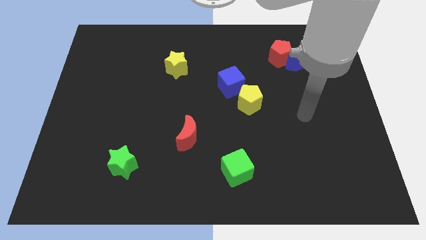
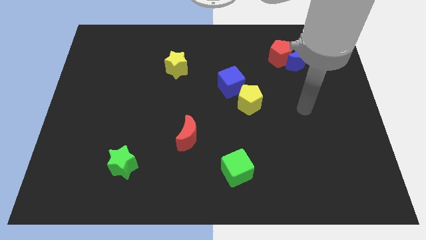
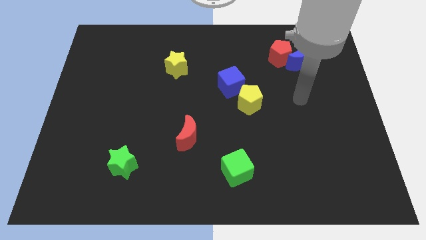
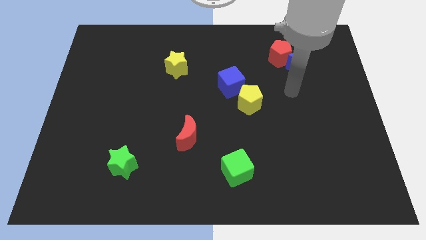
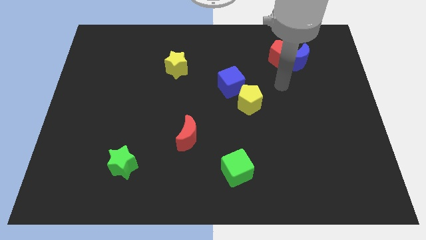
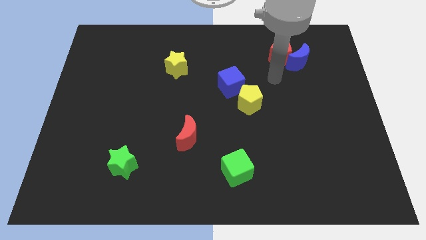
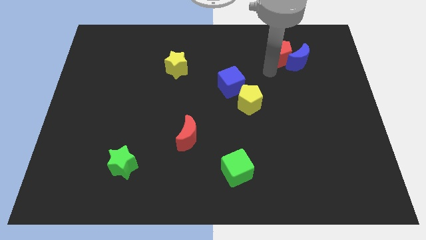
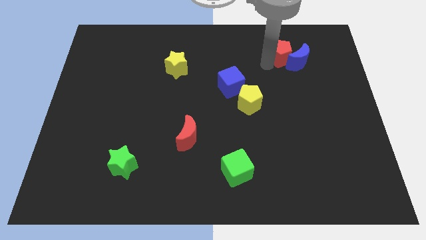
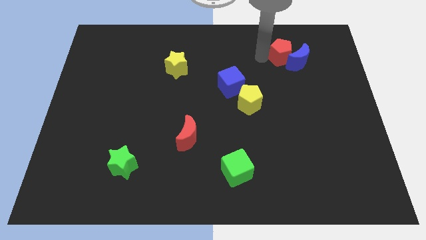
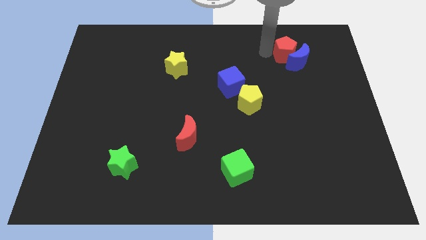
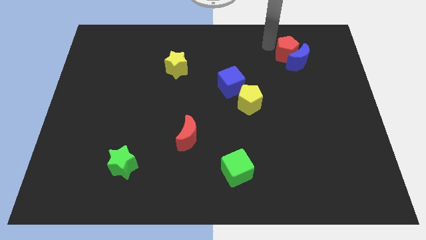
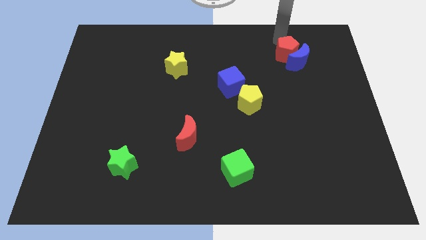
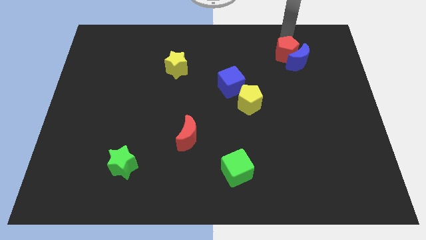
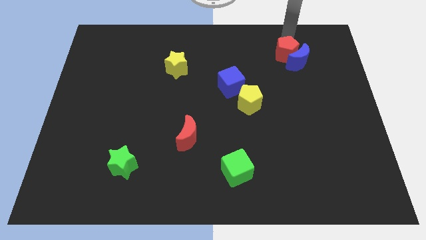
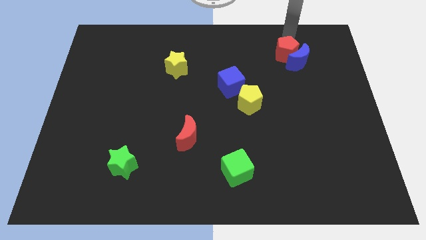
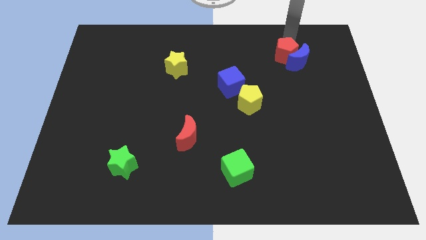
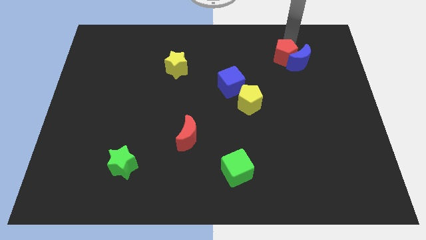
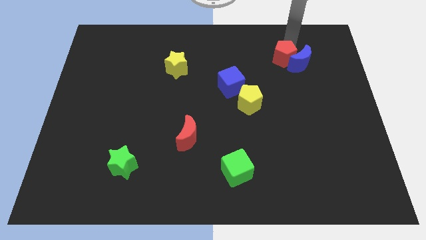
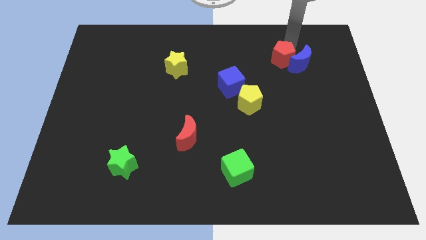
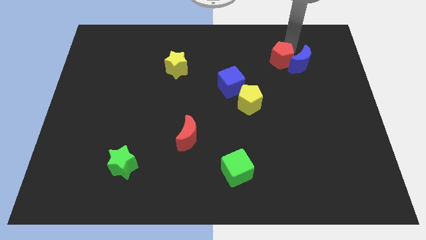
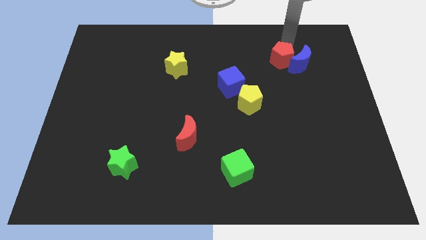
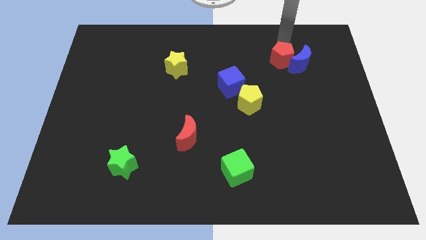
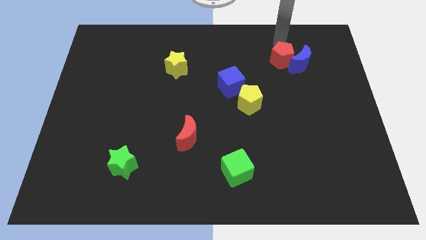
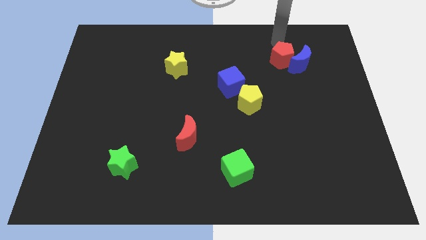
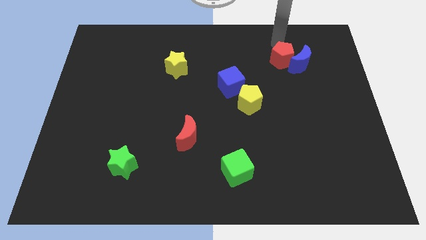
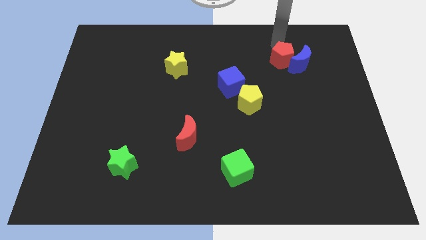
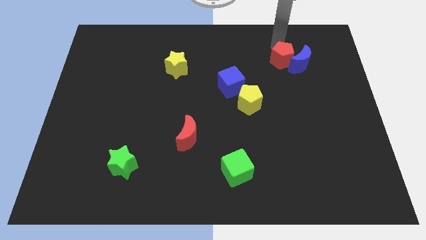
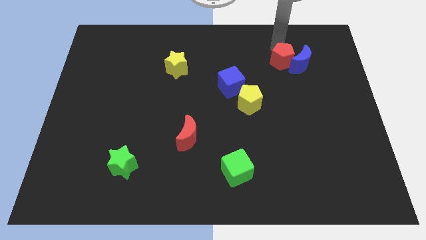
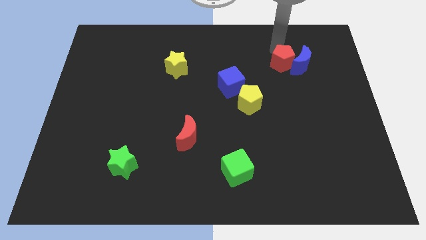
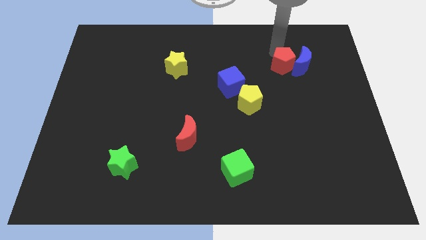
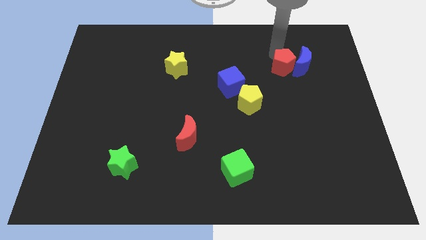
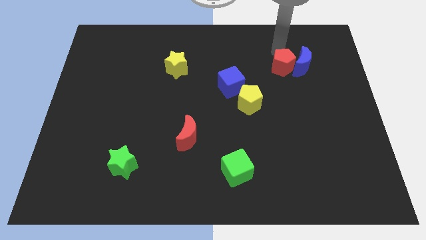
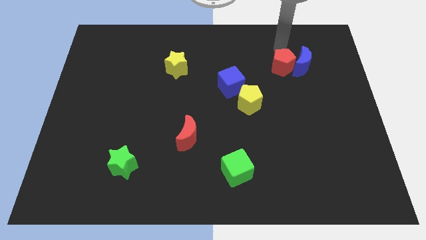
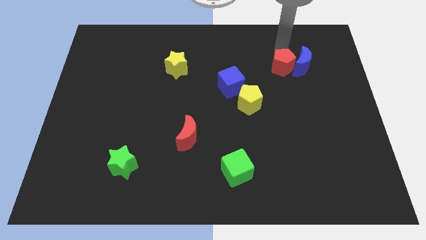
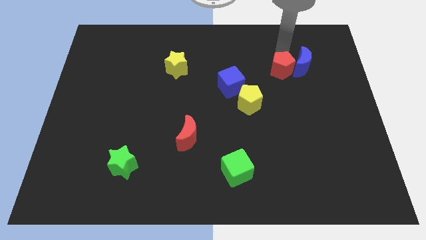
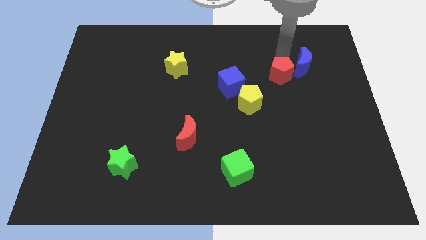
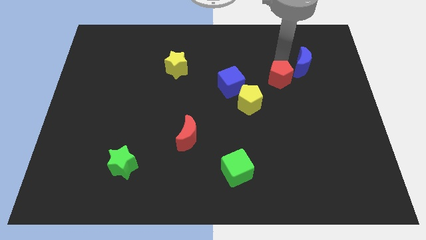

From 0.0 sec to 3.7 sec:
move the red pentagon downwards a little

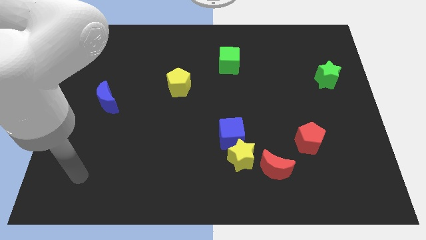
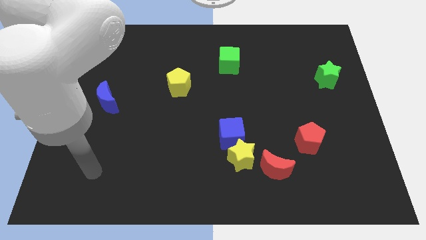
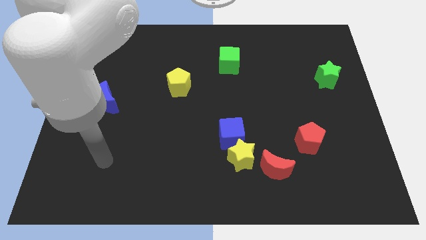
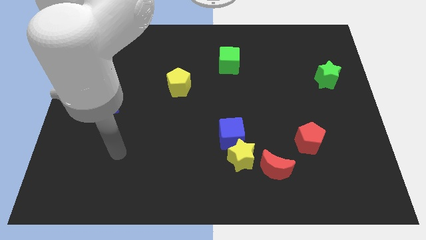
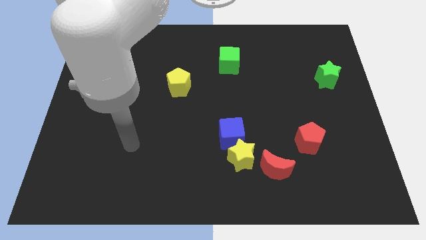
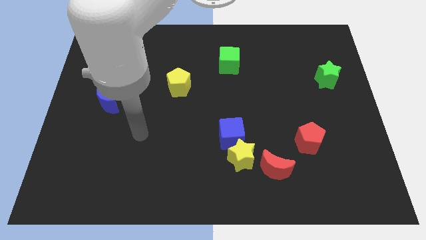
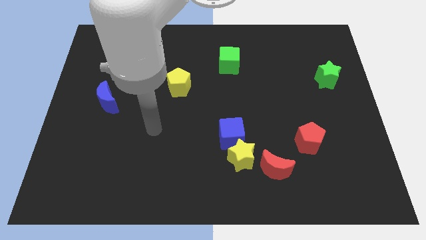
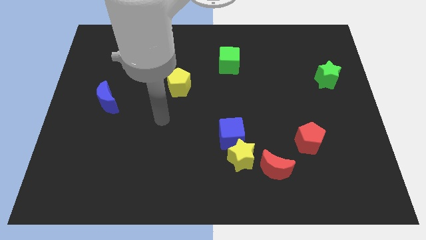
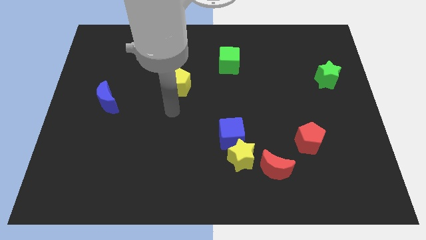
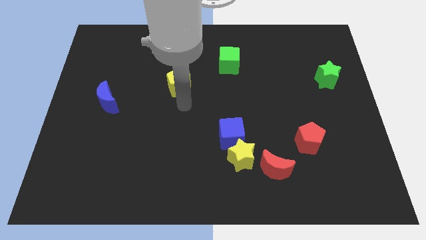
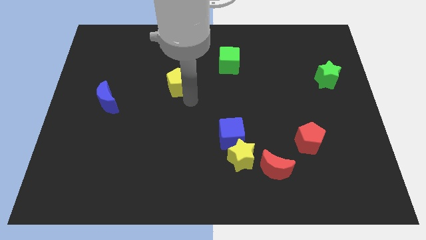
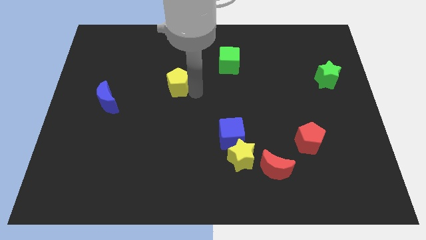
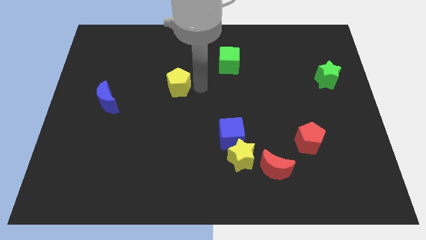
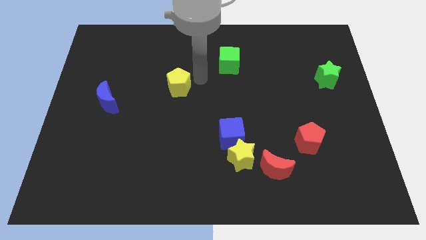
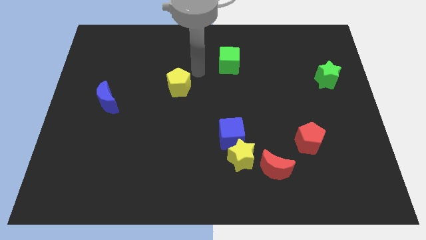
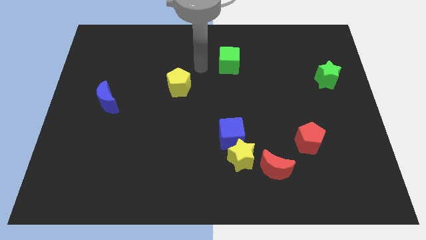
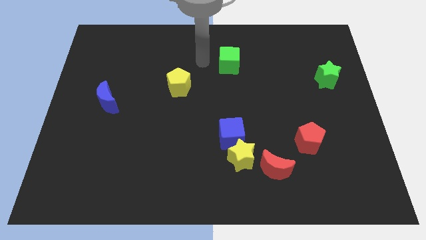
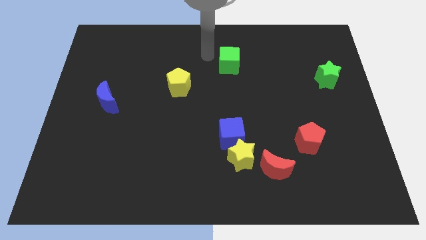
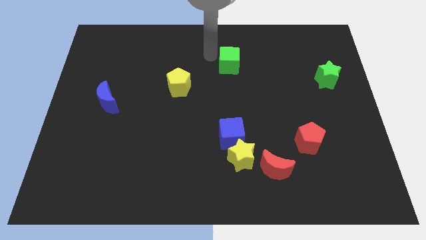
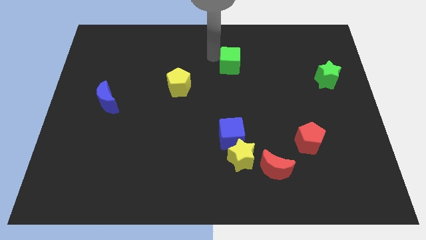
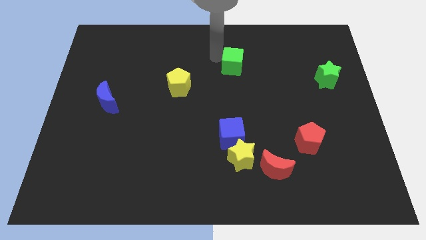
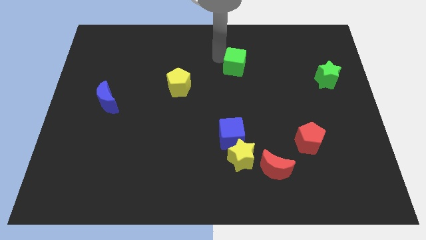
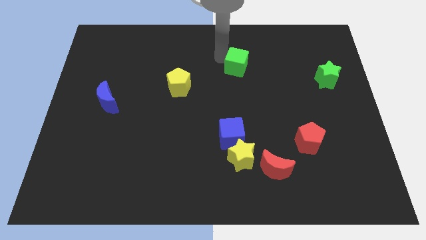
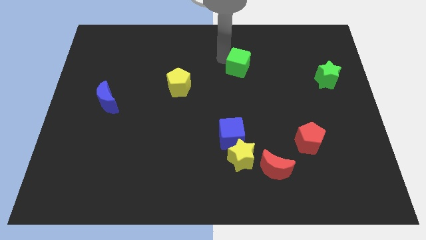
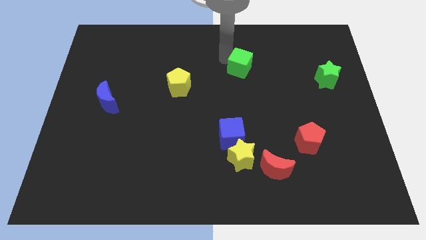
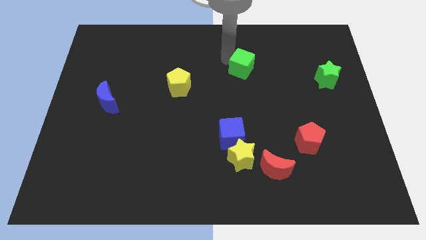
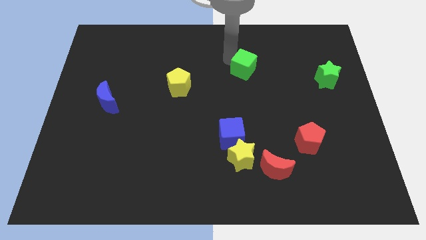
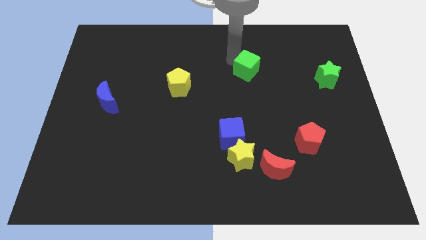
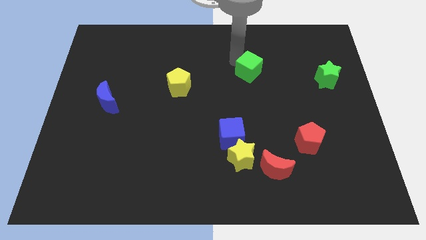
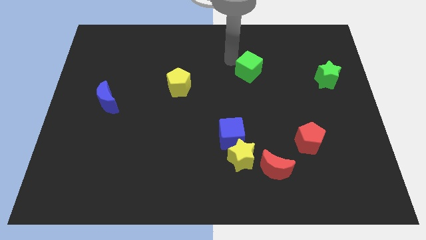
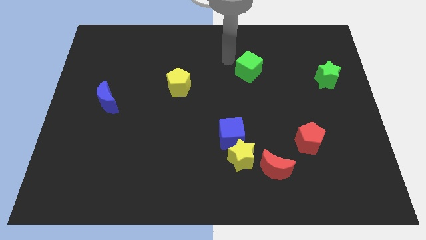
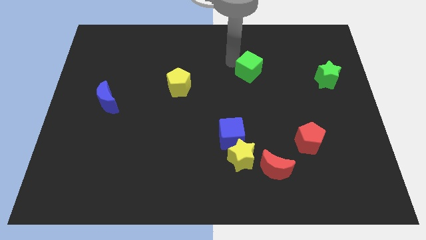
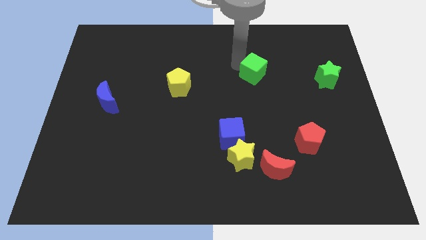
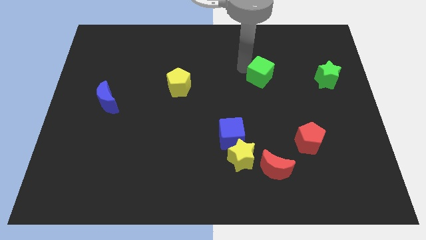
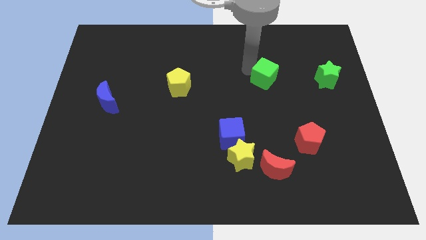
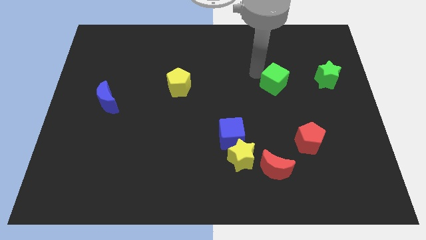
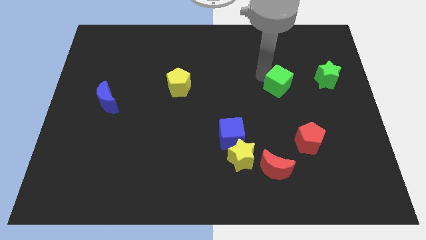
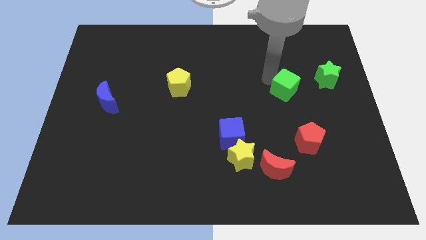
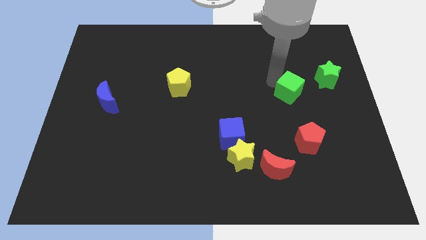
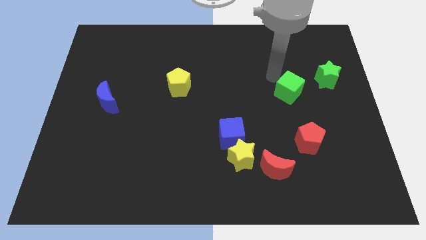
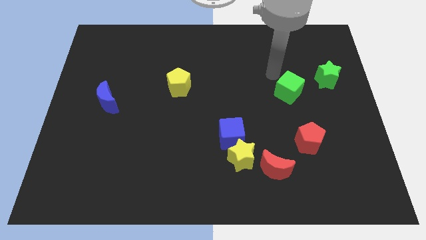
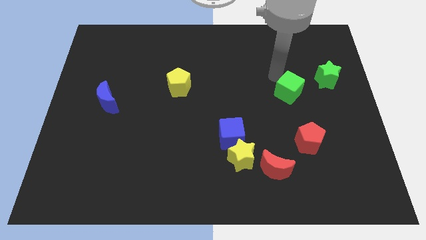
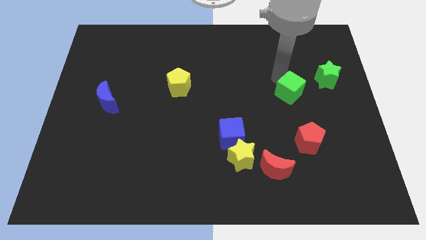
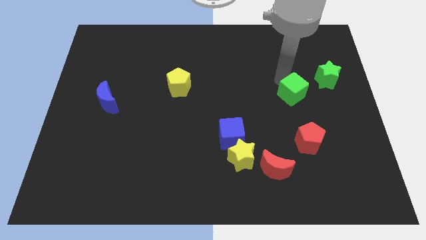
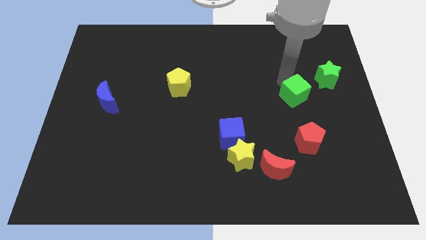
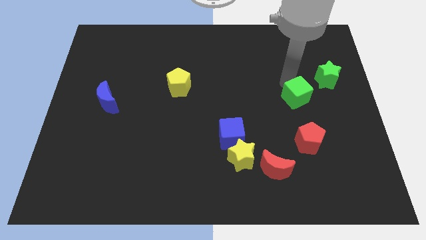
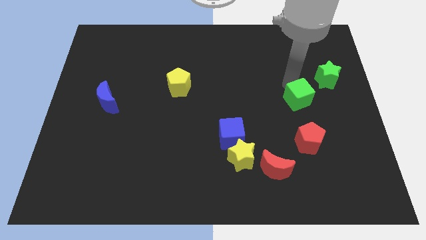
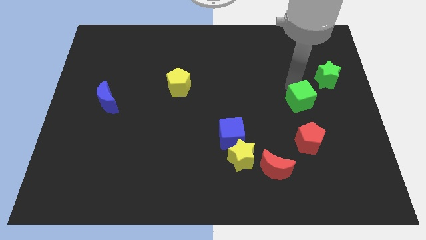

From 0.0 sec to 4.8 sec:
move the green cube down and to the right

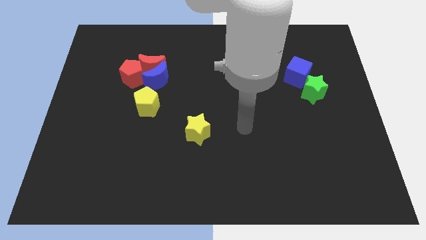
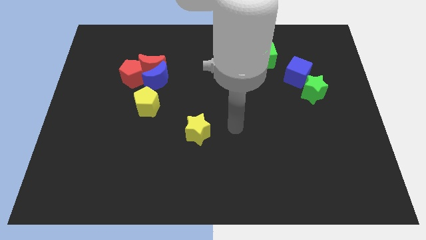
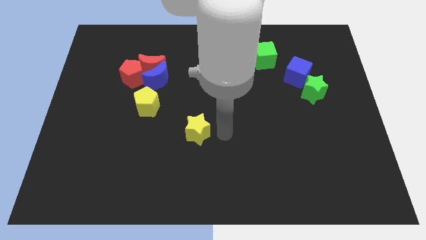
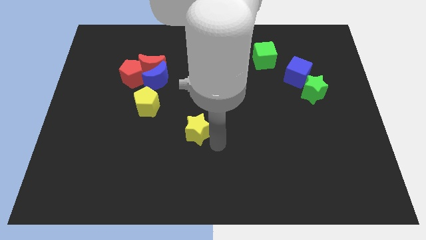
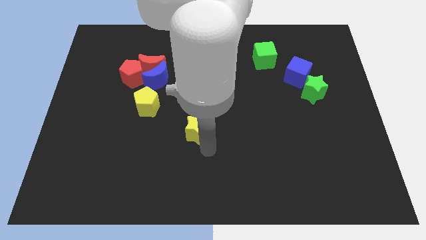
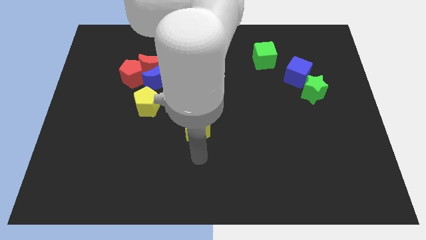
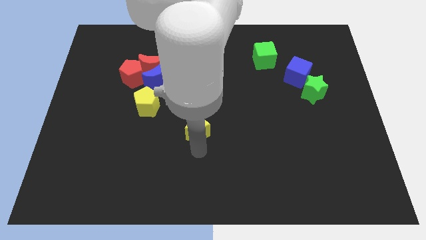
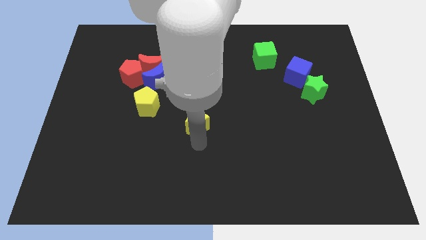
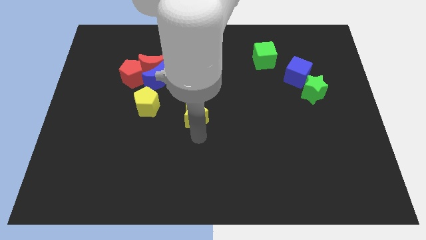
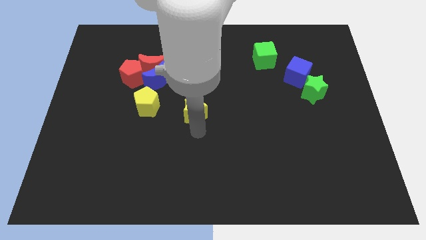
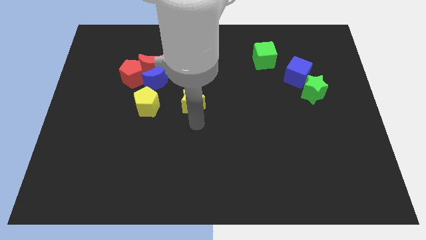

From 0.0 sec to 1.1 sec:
move the yellow star somewhat upwards
